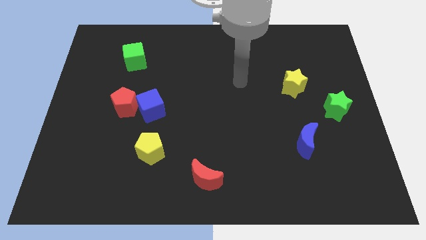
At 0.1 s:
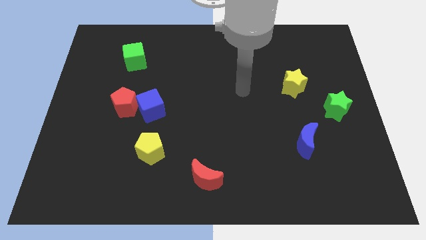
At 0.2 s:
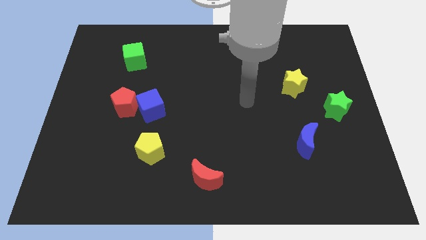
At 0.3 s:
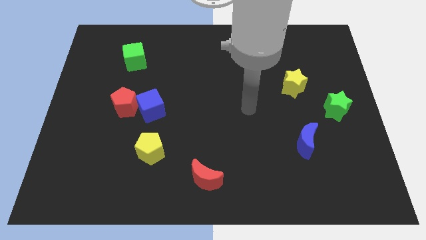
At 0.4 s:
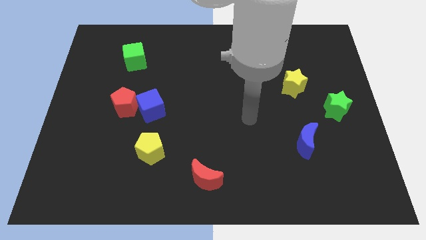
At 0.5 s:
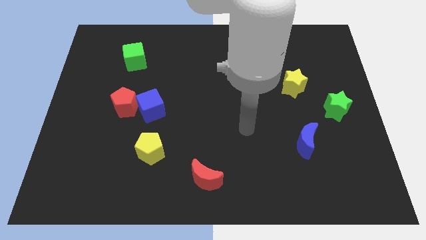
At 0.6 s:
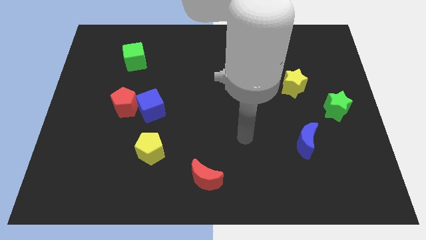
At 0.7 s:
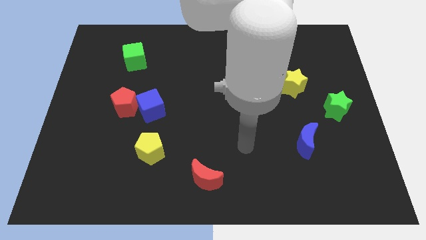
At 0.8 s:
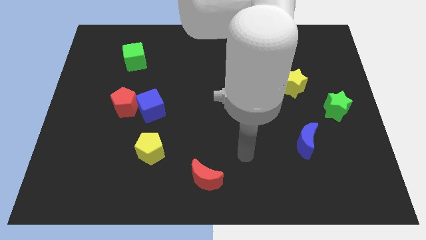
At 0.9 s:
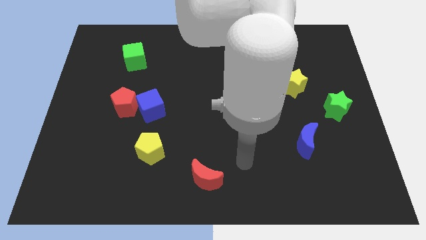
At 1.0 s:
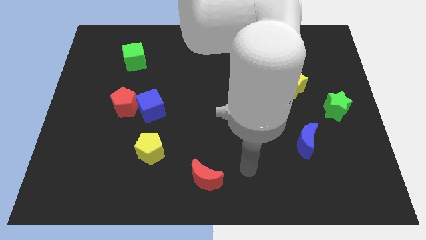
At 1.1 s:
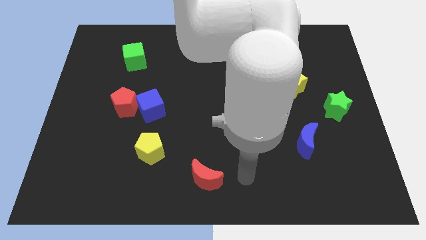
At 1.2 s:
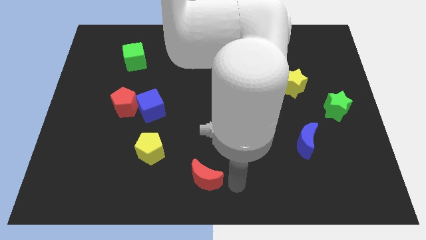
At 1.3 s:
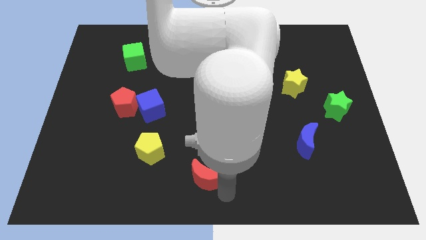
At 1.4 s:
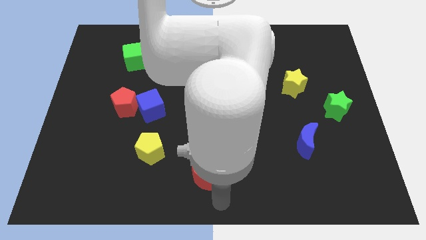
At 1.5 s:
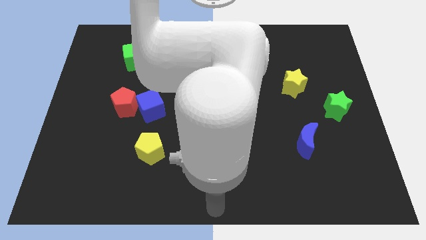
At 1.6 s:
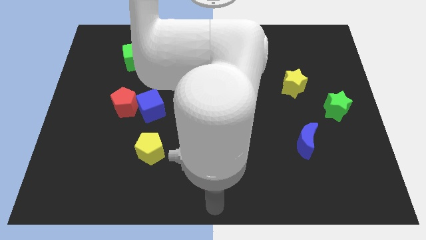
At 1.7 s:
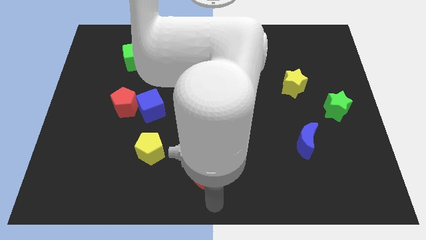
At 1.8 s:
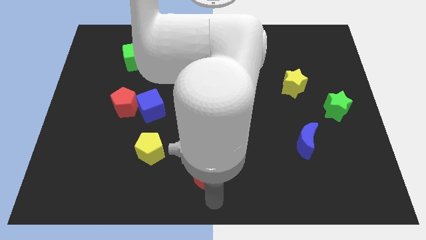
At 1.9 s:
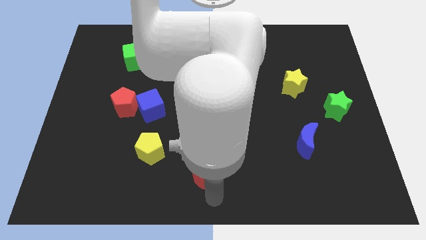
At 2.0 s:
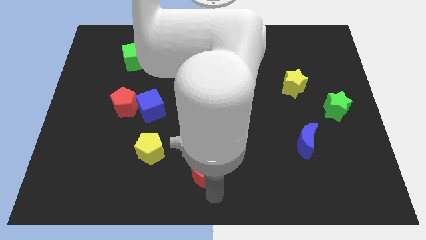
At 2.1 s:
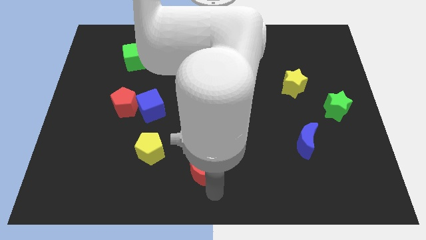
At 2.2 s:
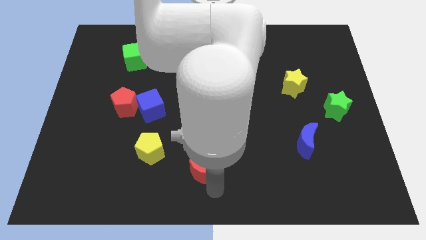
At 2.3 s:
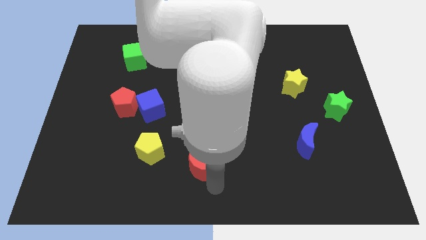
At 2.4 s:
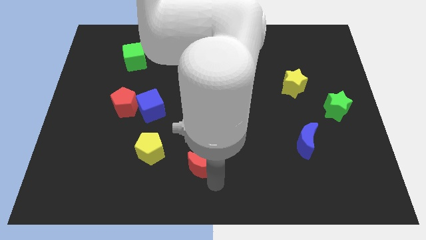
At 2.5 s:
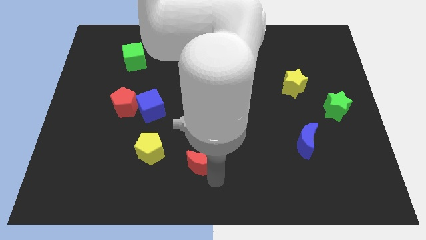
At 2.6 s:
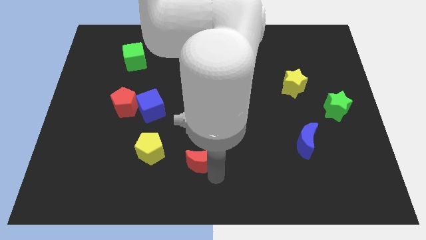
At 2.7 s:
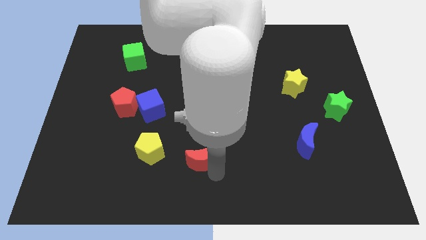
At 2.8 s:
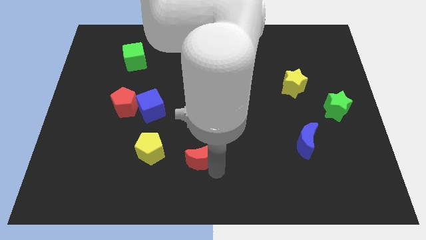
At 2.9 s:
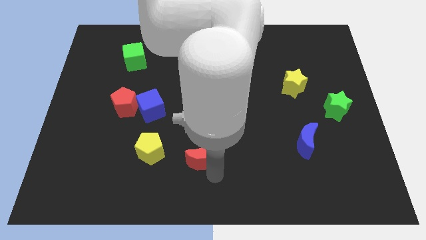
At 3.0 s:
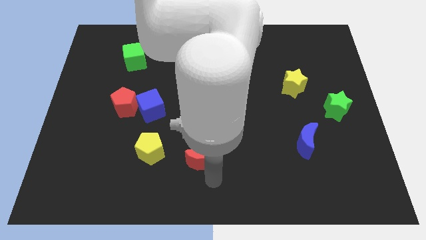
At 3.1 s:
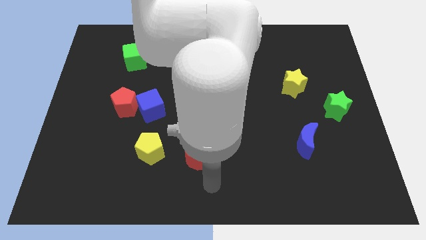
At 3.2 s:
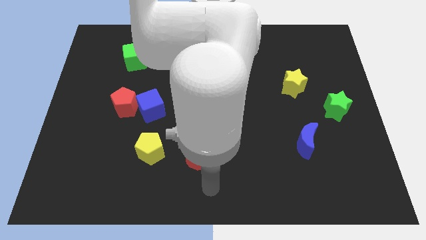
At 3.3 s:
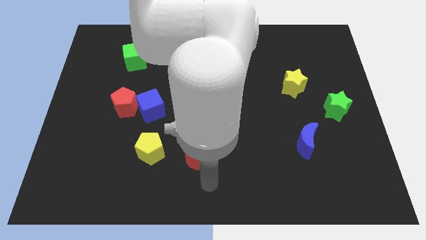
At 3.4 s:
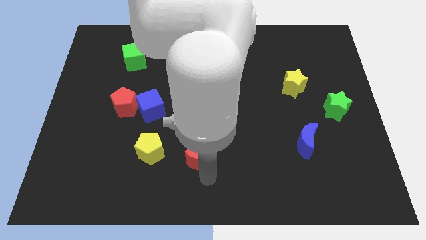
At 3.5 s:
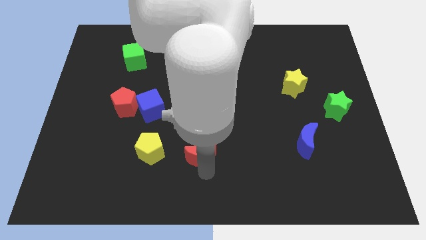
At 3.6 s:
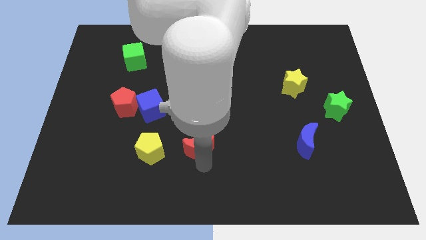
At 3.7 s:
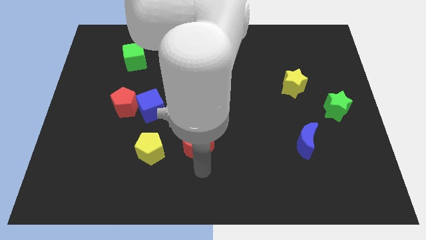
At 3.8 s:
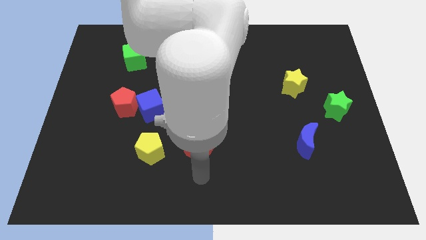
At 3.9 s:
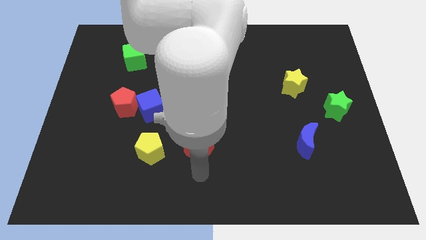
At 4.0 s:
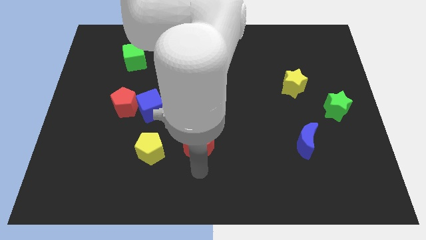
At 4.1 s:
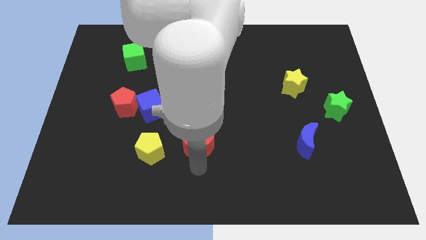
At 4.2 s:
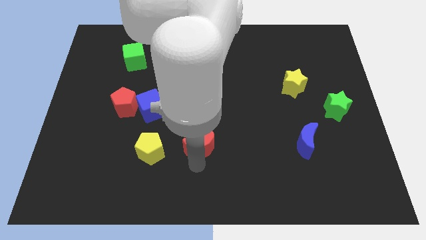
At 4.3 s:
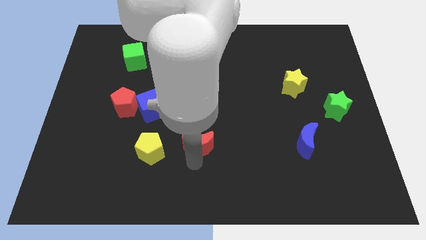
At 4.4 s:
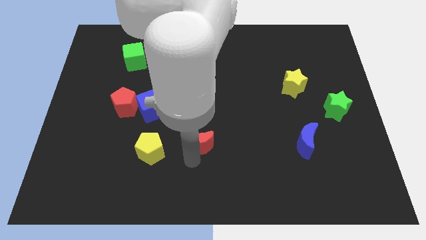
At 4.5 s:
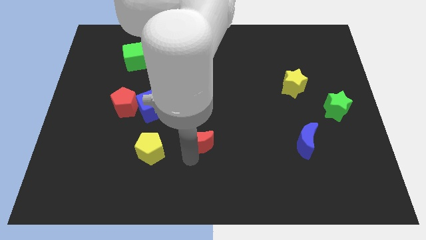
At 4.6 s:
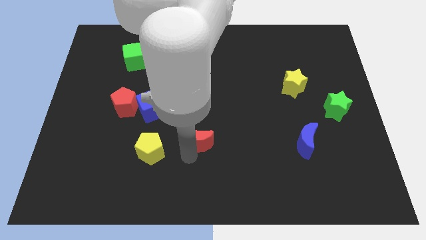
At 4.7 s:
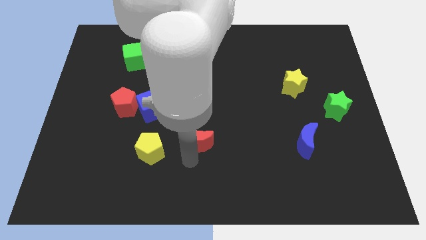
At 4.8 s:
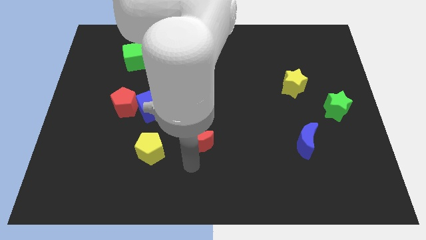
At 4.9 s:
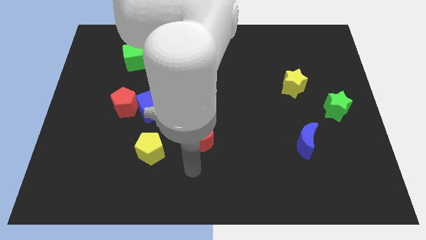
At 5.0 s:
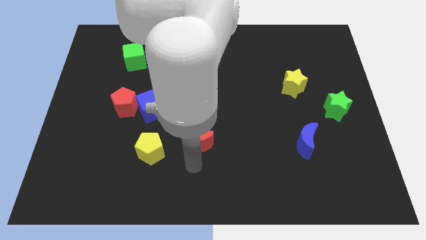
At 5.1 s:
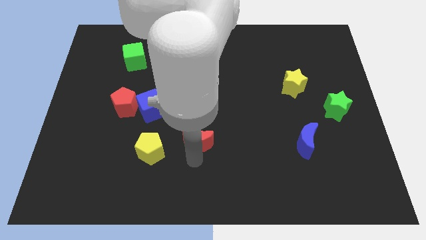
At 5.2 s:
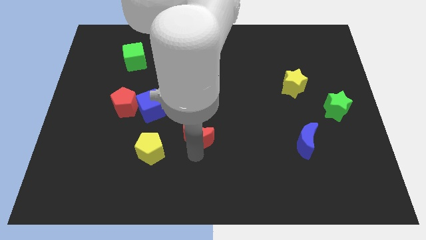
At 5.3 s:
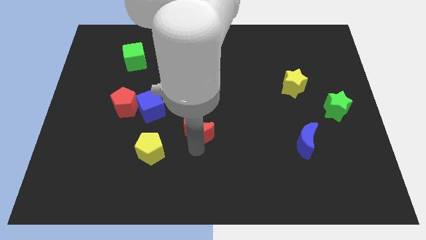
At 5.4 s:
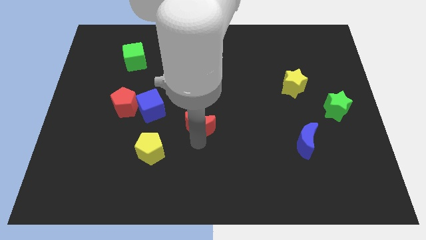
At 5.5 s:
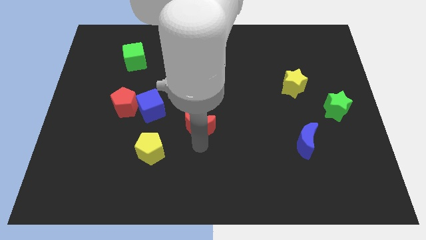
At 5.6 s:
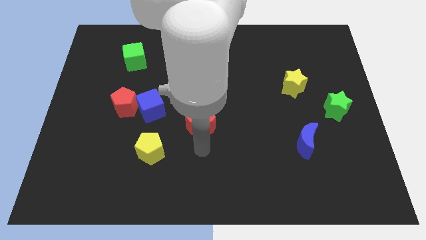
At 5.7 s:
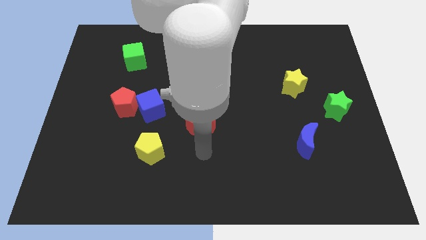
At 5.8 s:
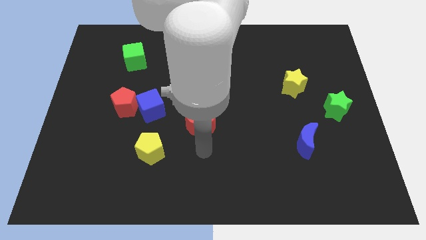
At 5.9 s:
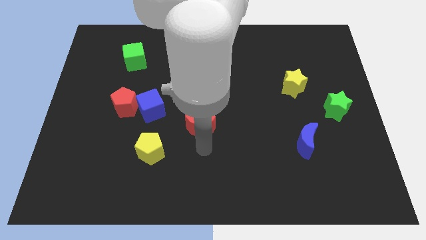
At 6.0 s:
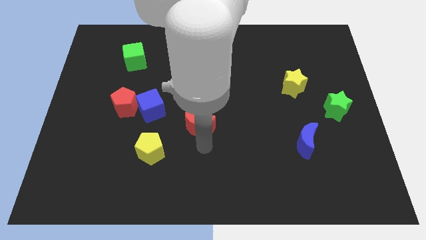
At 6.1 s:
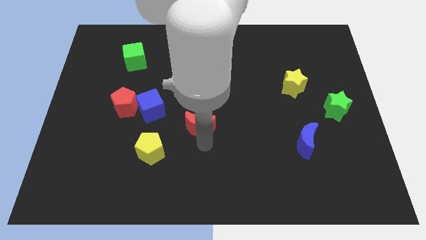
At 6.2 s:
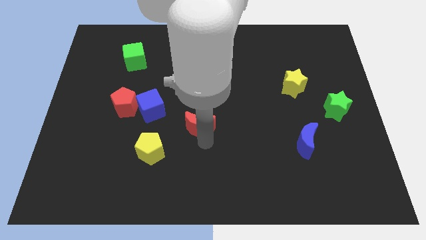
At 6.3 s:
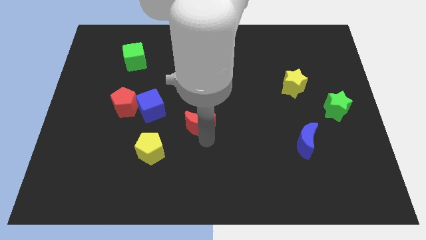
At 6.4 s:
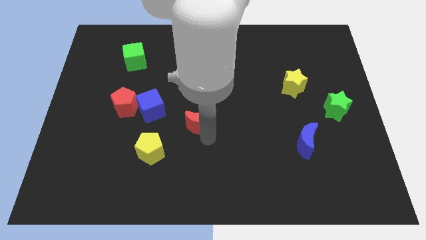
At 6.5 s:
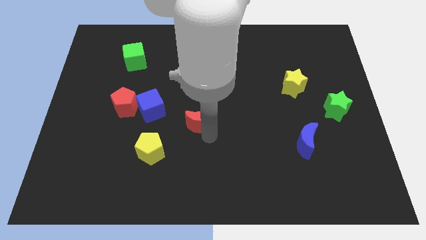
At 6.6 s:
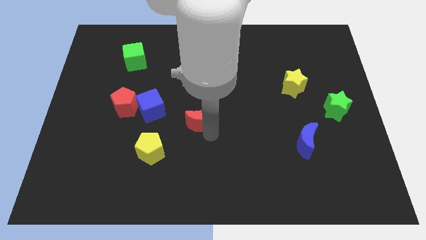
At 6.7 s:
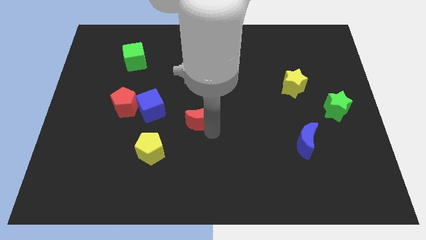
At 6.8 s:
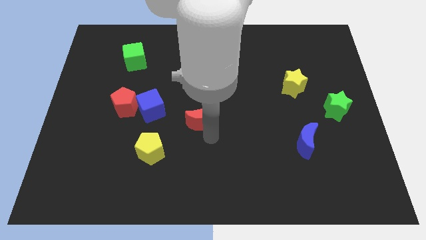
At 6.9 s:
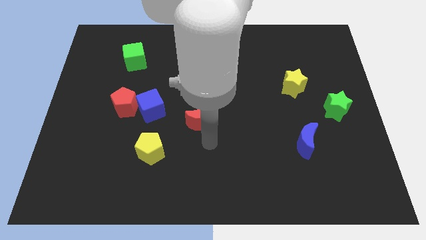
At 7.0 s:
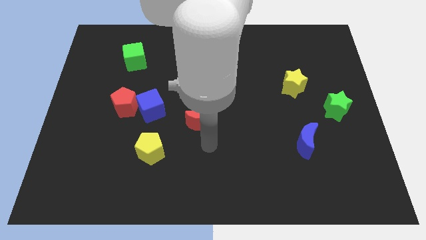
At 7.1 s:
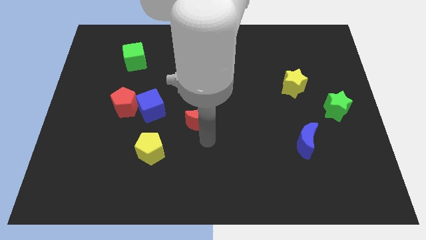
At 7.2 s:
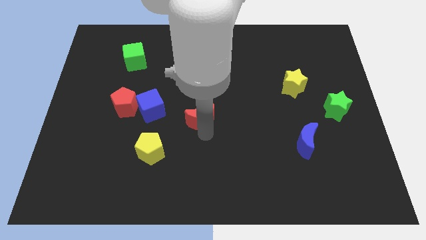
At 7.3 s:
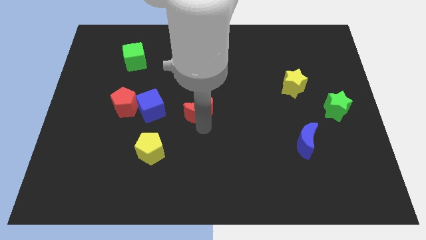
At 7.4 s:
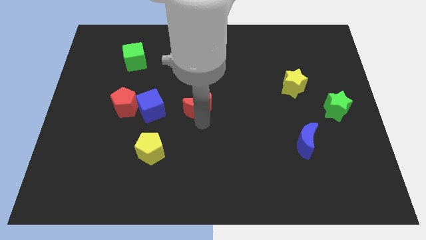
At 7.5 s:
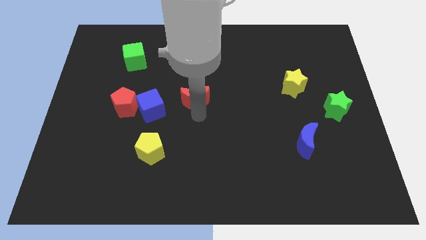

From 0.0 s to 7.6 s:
move the red moon upwards
